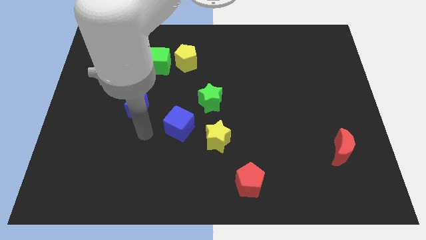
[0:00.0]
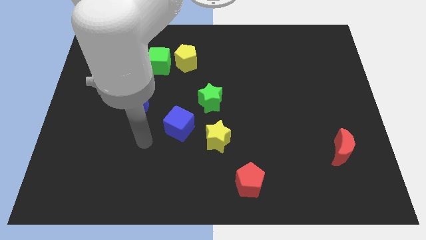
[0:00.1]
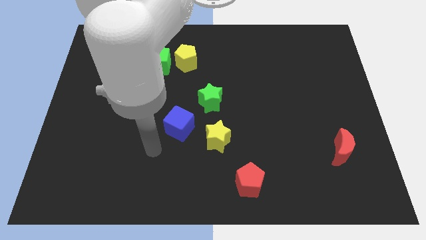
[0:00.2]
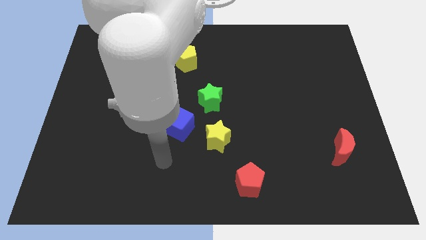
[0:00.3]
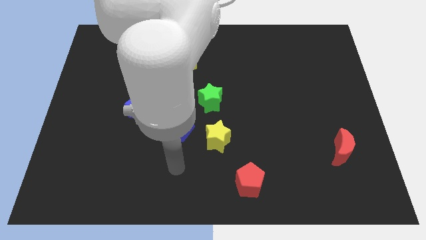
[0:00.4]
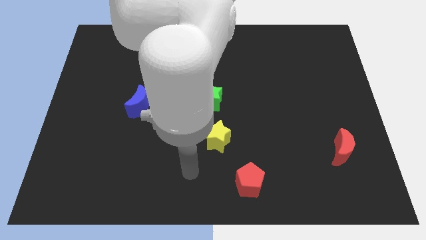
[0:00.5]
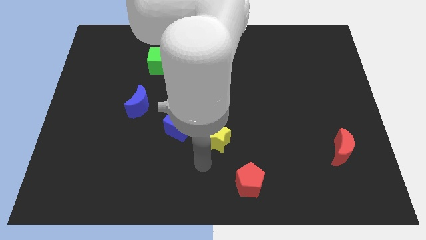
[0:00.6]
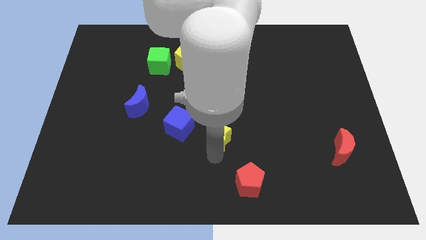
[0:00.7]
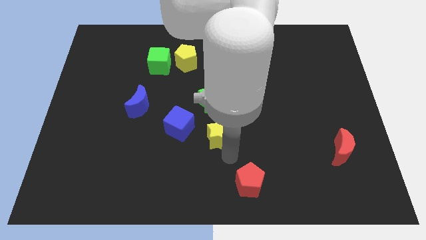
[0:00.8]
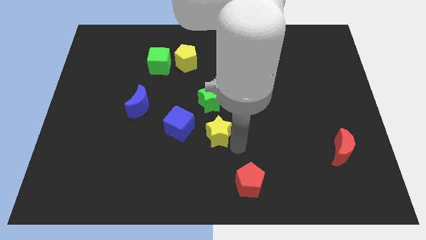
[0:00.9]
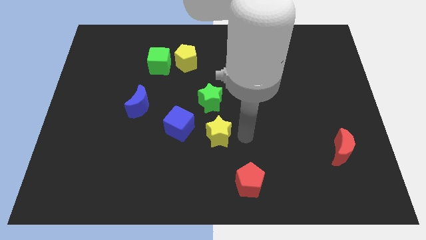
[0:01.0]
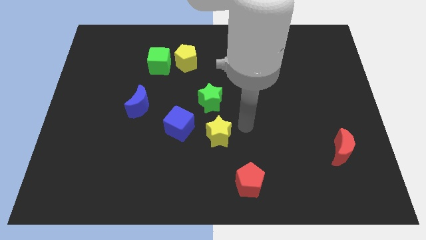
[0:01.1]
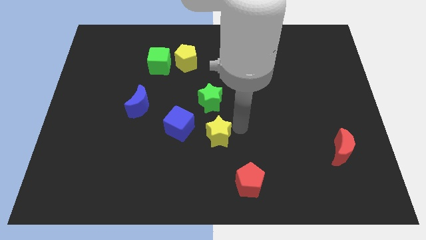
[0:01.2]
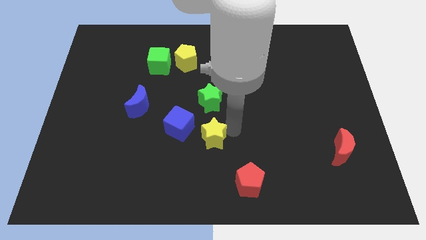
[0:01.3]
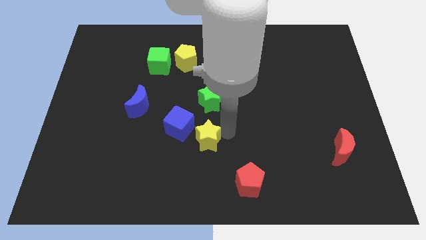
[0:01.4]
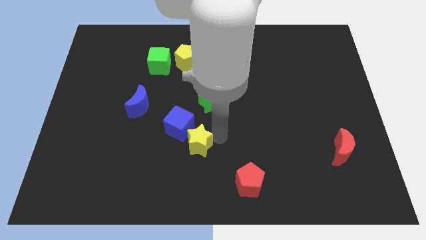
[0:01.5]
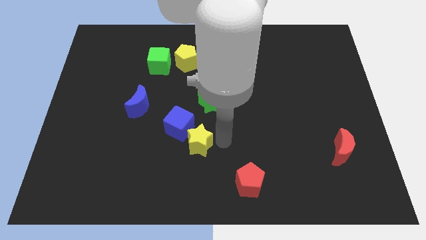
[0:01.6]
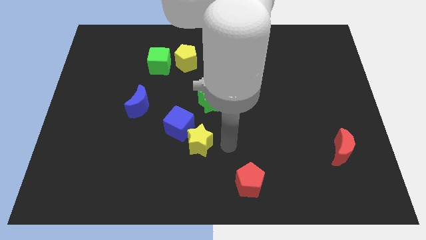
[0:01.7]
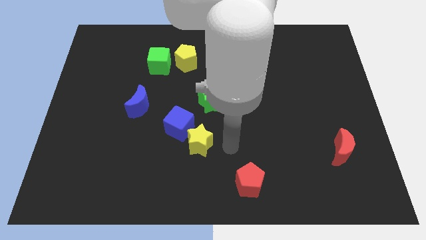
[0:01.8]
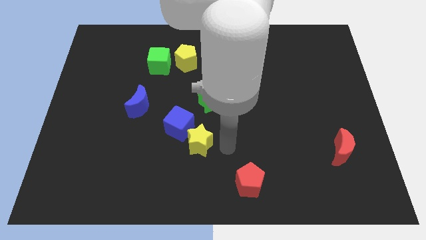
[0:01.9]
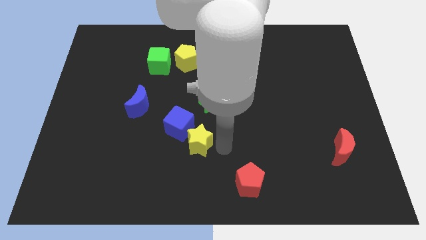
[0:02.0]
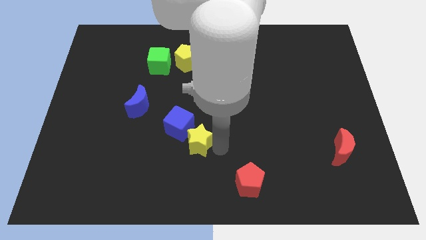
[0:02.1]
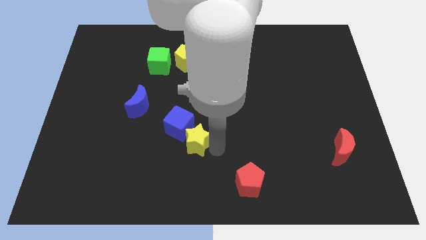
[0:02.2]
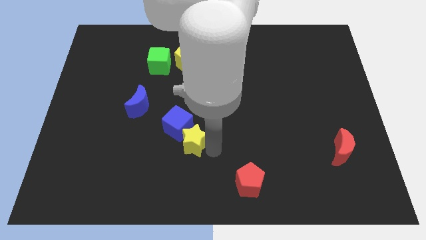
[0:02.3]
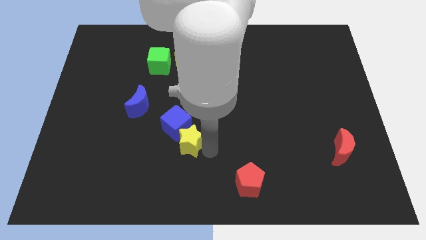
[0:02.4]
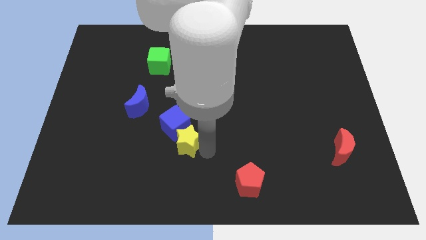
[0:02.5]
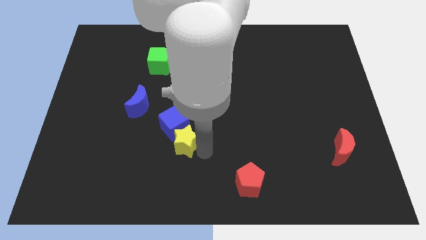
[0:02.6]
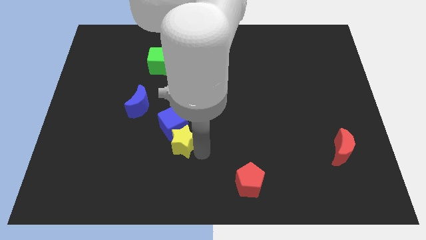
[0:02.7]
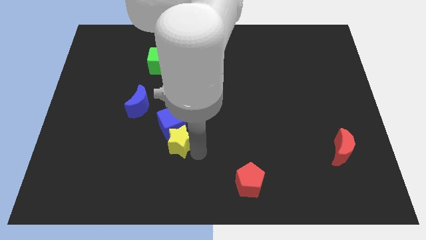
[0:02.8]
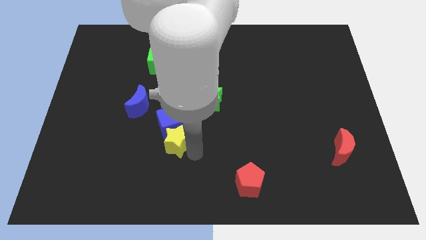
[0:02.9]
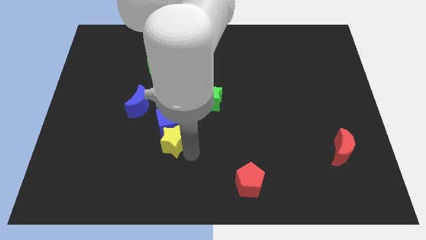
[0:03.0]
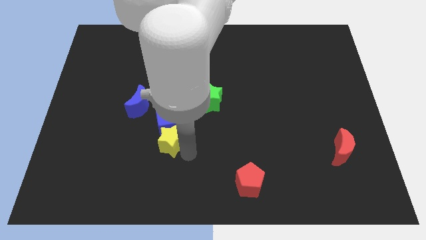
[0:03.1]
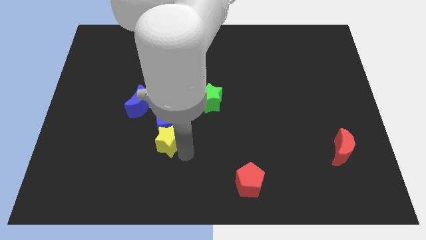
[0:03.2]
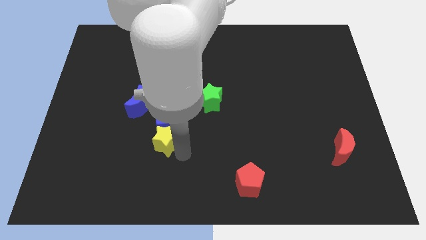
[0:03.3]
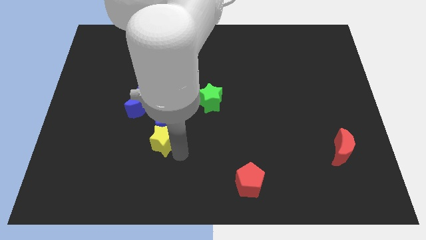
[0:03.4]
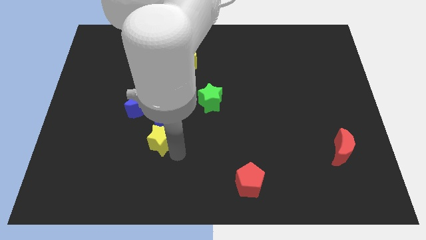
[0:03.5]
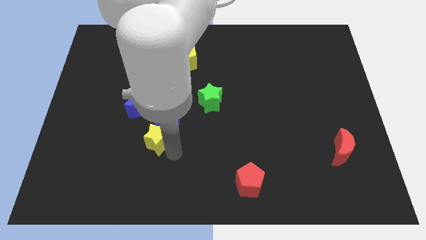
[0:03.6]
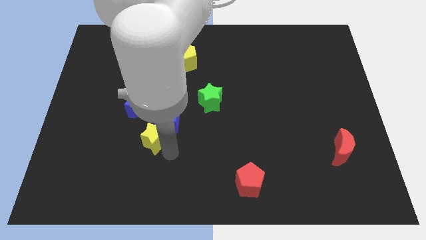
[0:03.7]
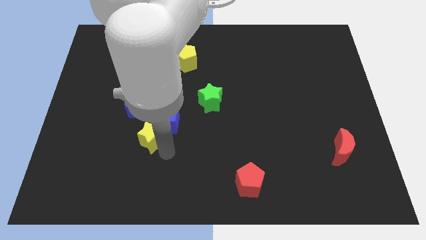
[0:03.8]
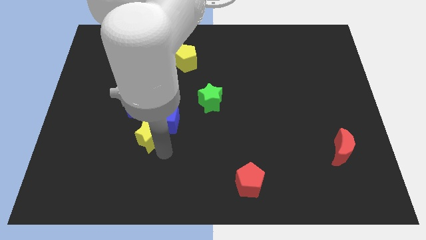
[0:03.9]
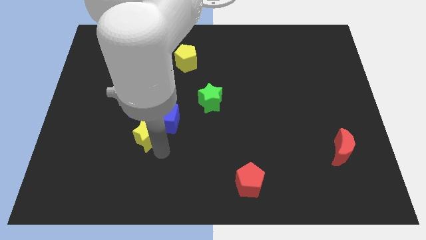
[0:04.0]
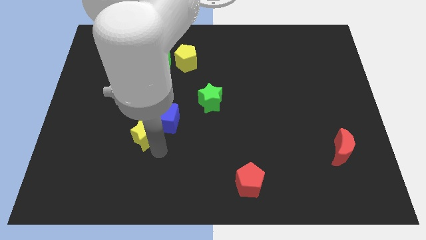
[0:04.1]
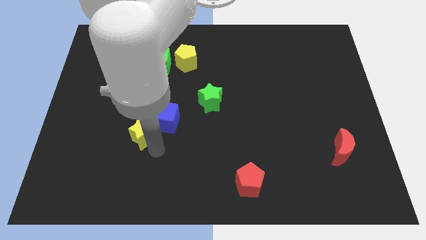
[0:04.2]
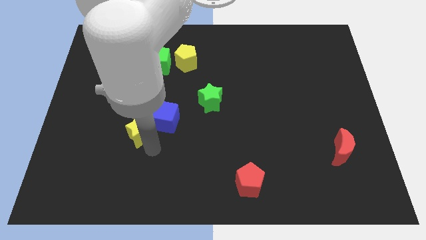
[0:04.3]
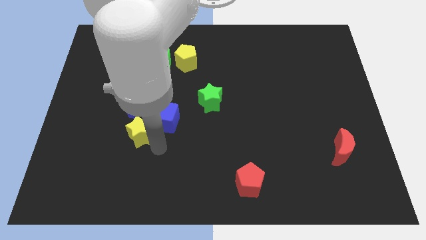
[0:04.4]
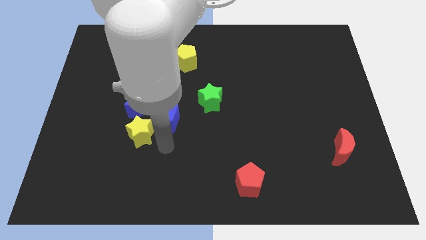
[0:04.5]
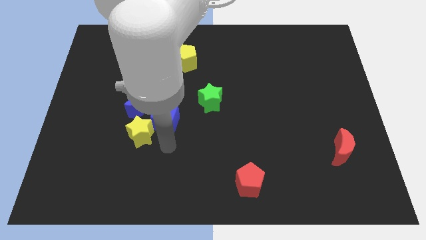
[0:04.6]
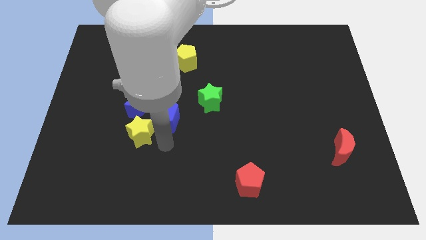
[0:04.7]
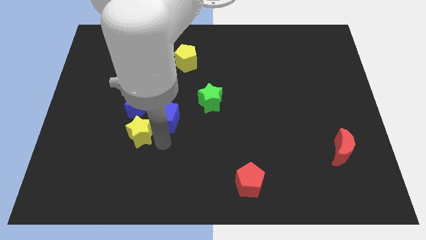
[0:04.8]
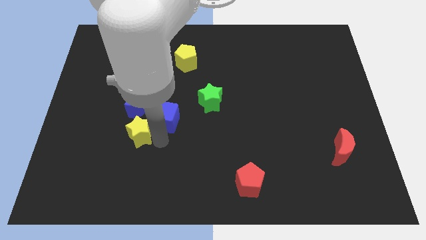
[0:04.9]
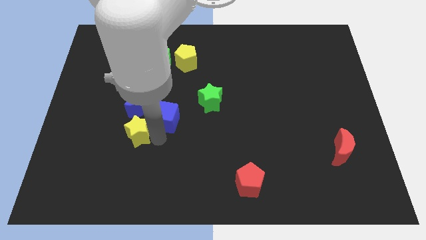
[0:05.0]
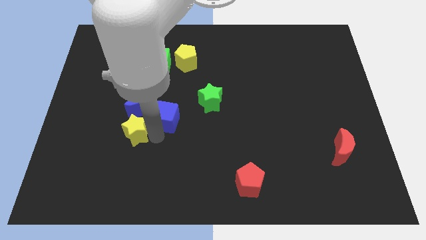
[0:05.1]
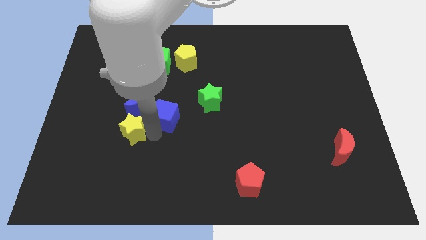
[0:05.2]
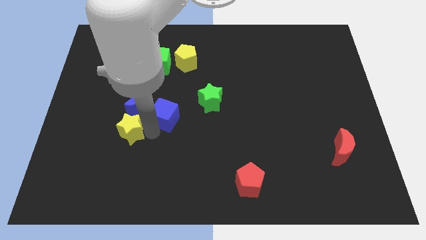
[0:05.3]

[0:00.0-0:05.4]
put the yellow star diagonally down and to the left of the blue moon

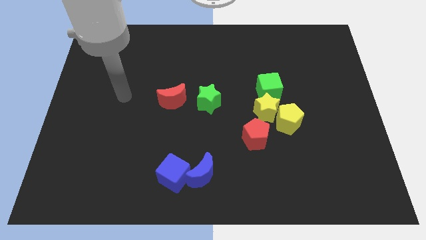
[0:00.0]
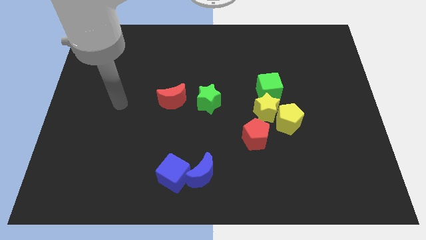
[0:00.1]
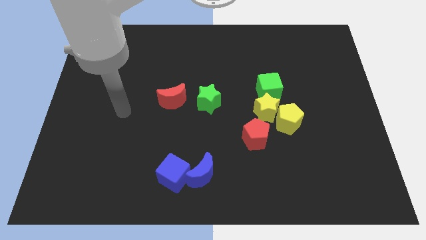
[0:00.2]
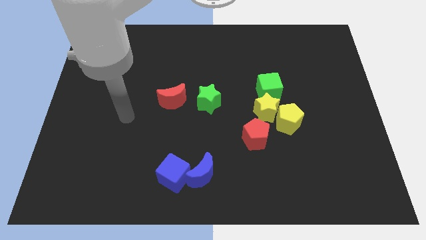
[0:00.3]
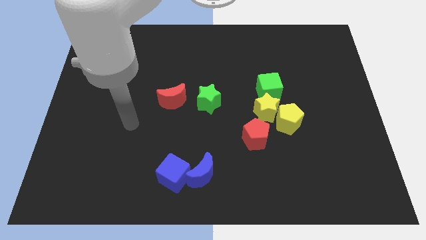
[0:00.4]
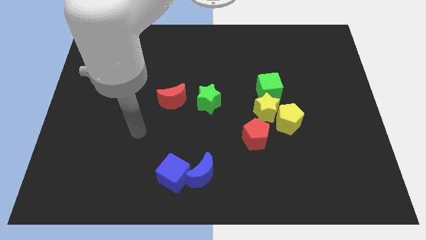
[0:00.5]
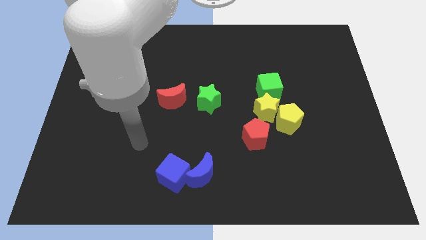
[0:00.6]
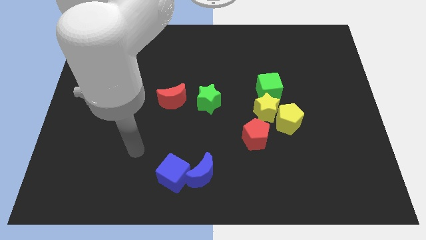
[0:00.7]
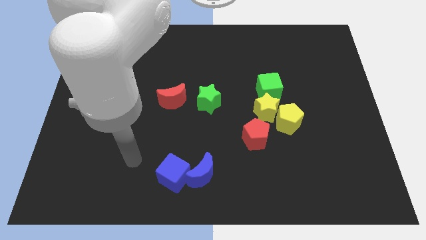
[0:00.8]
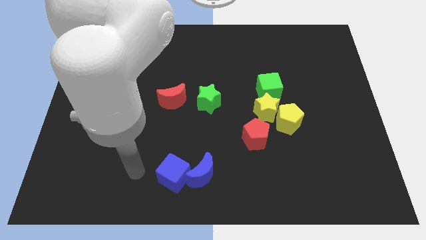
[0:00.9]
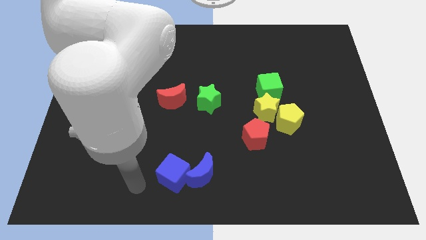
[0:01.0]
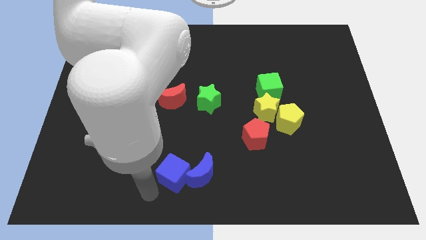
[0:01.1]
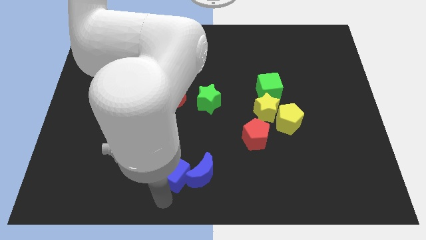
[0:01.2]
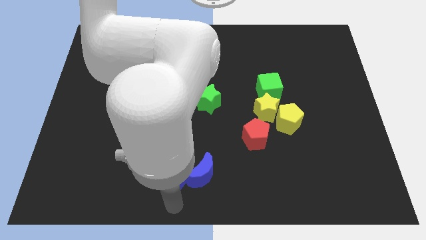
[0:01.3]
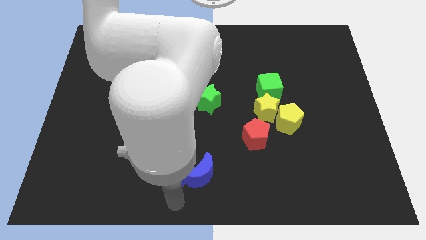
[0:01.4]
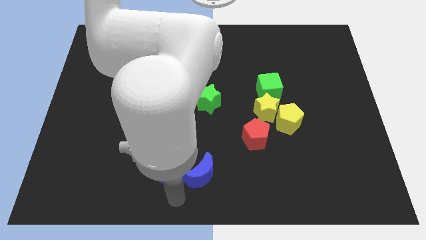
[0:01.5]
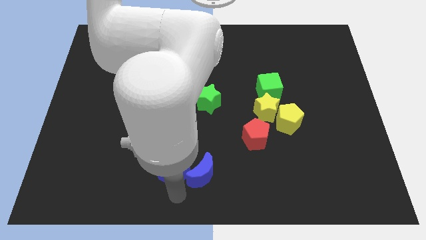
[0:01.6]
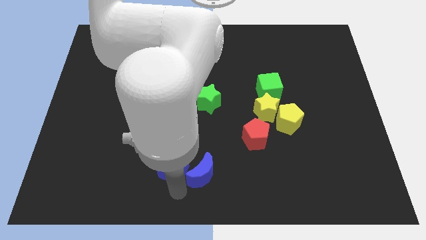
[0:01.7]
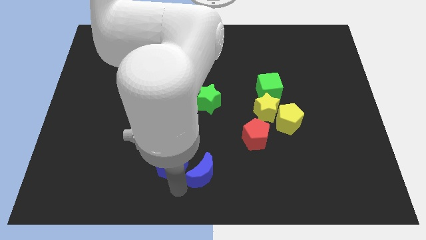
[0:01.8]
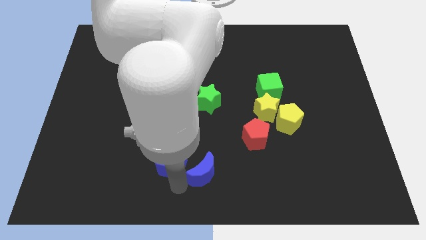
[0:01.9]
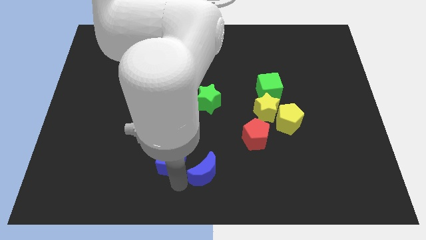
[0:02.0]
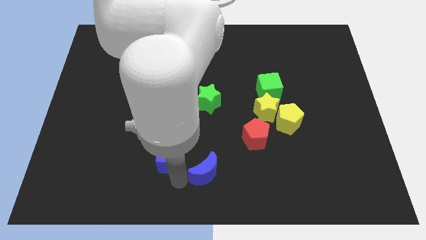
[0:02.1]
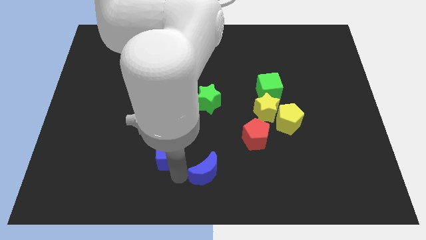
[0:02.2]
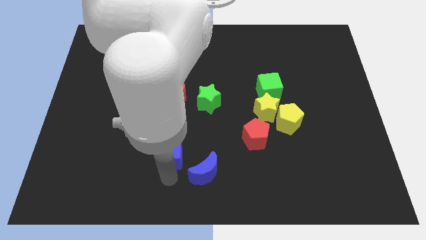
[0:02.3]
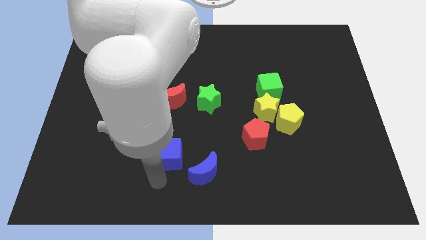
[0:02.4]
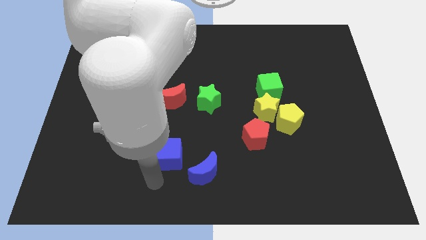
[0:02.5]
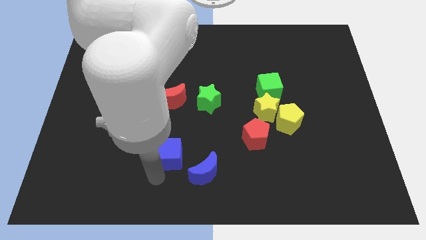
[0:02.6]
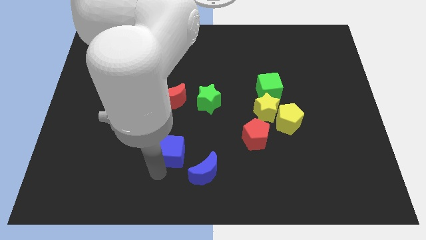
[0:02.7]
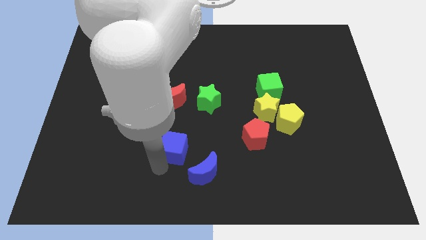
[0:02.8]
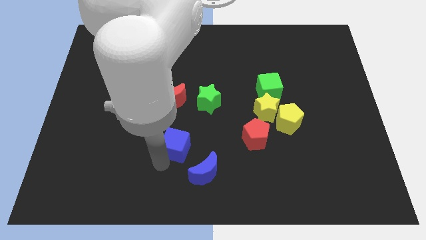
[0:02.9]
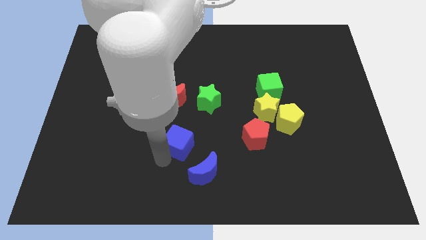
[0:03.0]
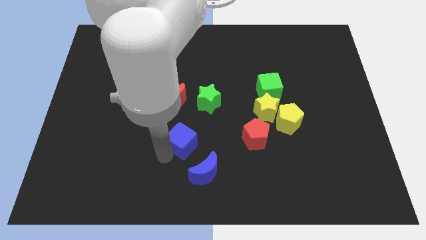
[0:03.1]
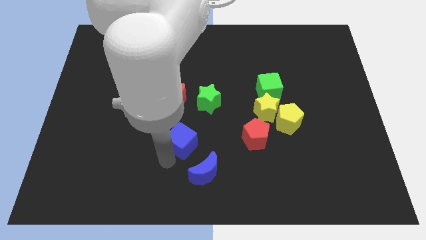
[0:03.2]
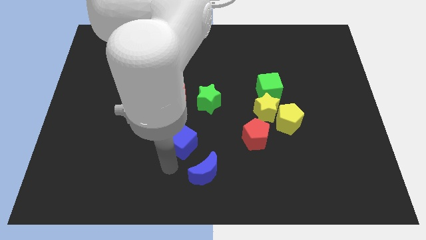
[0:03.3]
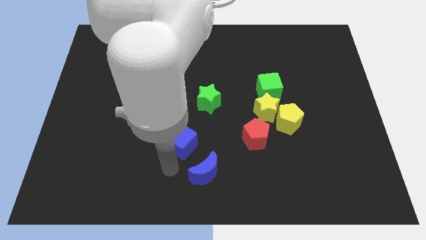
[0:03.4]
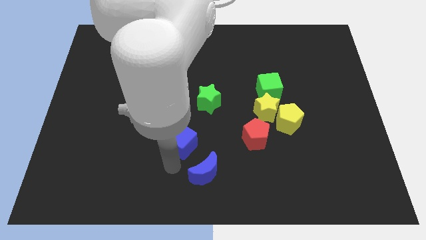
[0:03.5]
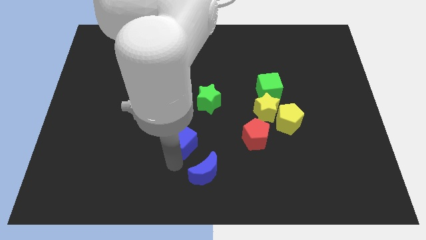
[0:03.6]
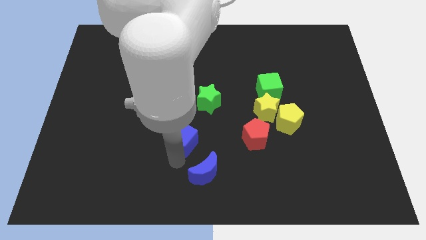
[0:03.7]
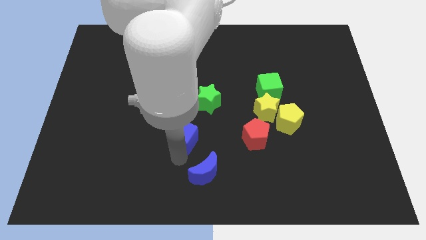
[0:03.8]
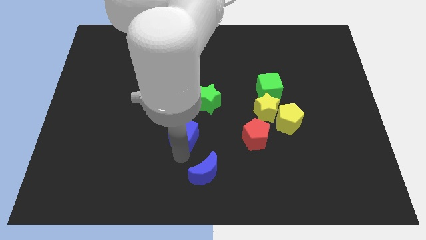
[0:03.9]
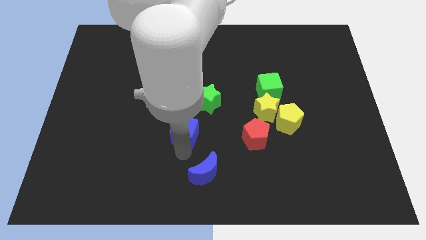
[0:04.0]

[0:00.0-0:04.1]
put the blue cube to the bottom right side of the red moon
